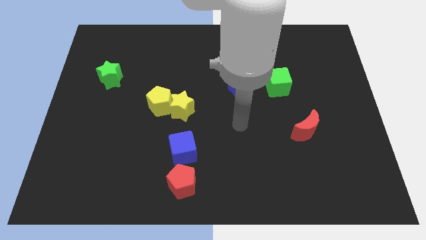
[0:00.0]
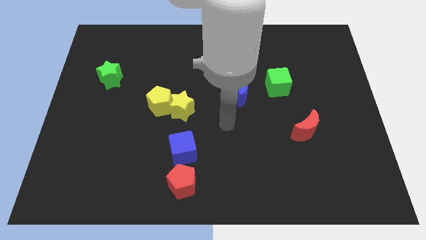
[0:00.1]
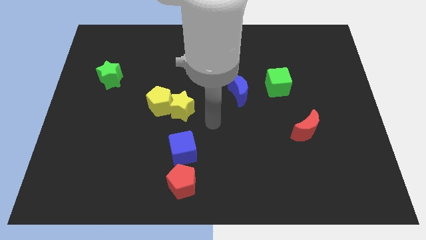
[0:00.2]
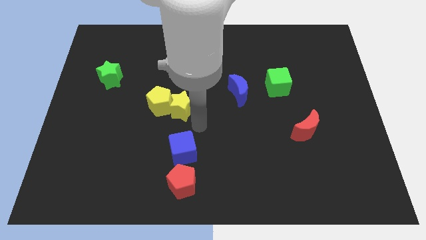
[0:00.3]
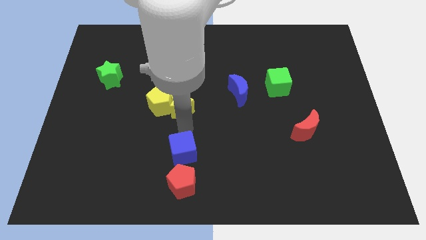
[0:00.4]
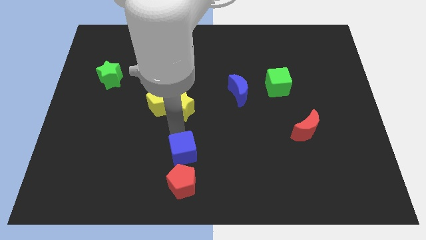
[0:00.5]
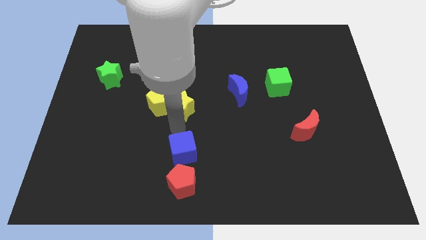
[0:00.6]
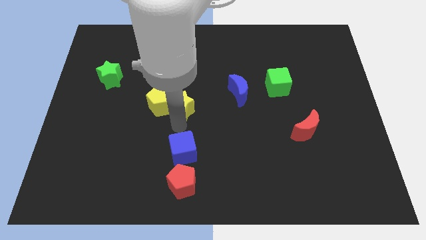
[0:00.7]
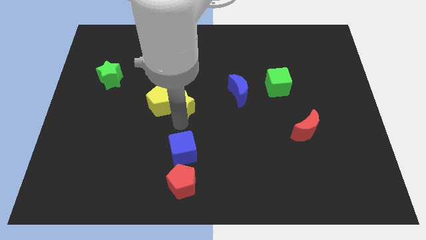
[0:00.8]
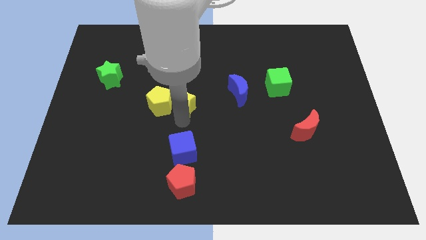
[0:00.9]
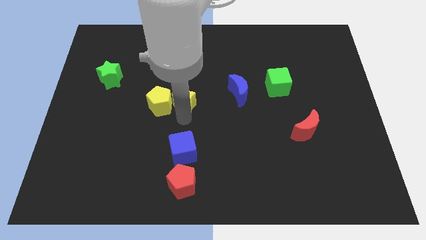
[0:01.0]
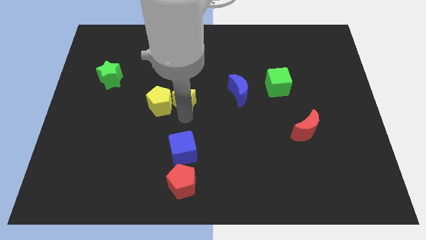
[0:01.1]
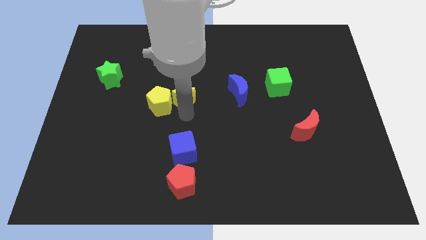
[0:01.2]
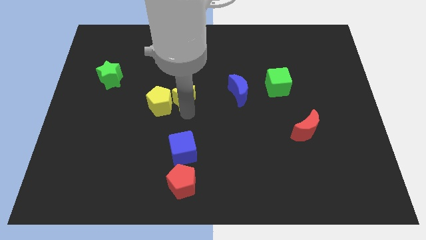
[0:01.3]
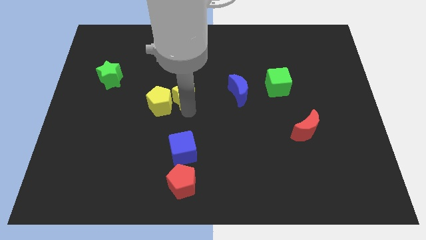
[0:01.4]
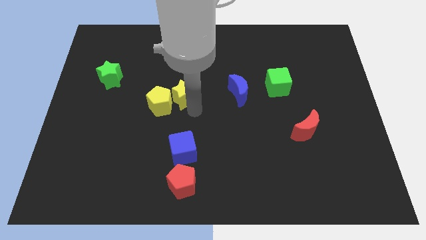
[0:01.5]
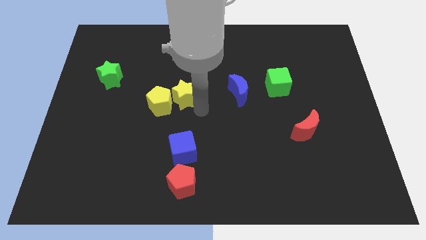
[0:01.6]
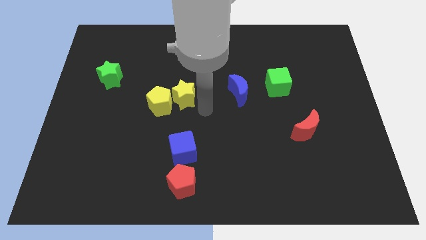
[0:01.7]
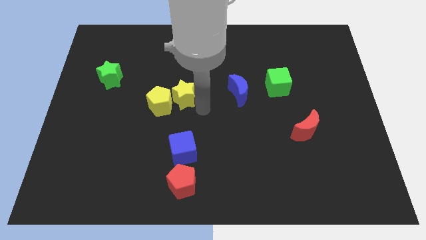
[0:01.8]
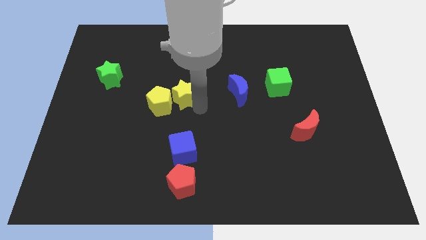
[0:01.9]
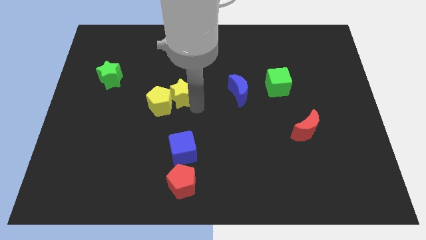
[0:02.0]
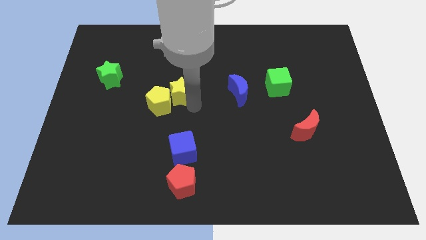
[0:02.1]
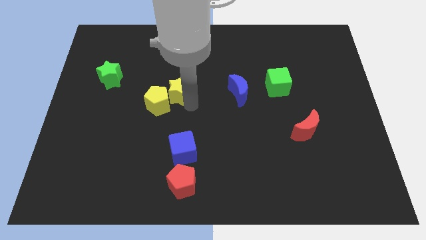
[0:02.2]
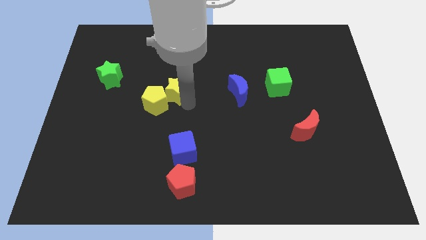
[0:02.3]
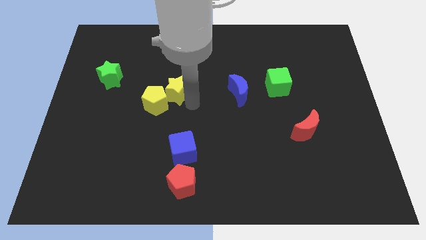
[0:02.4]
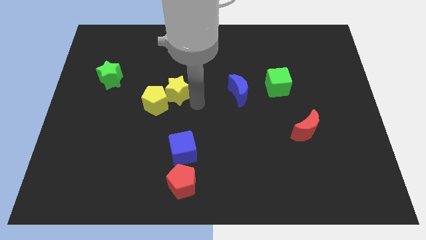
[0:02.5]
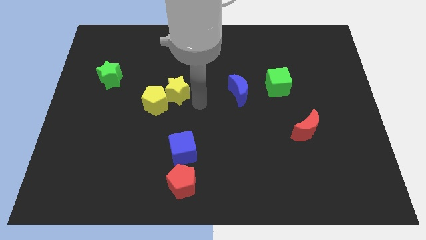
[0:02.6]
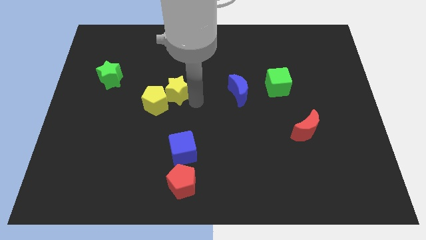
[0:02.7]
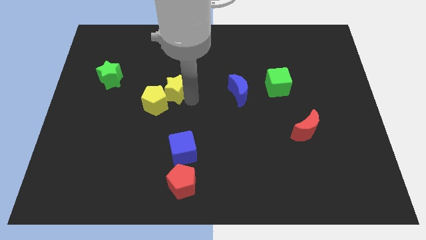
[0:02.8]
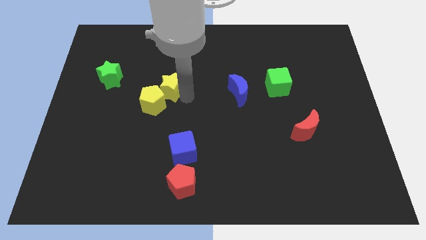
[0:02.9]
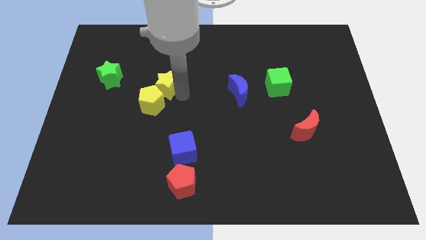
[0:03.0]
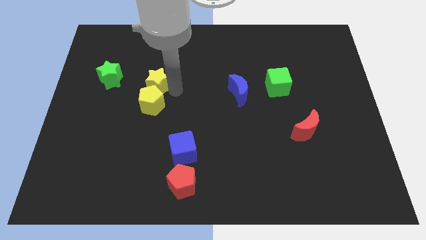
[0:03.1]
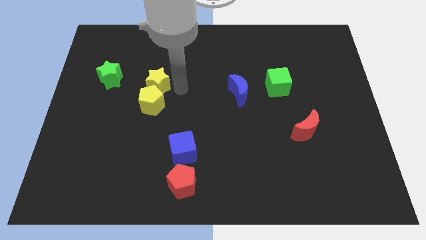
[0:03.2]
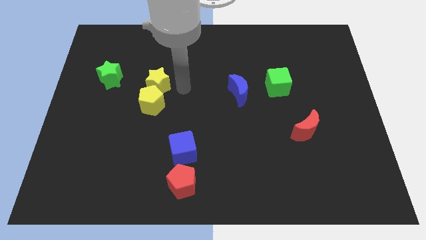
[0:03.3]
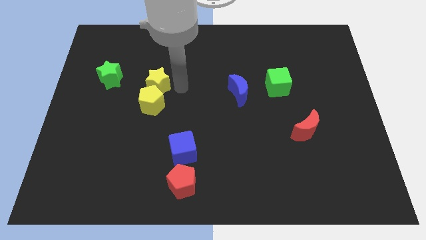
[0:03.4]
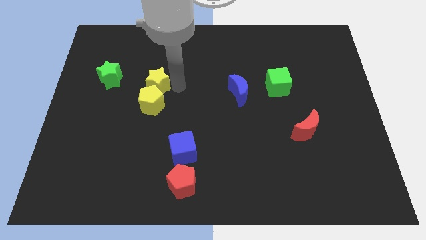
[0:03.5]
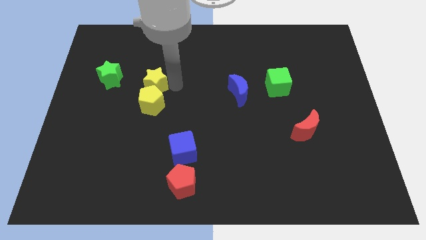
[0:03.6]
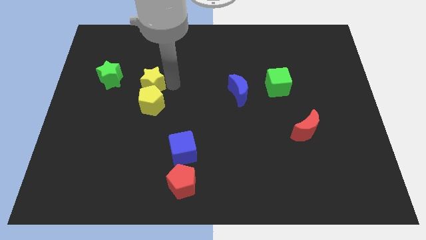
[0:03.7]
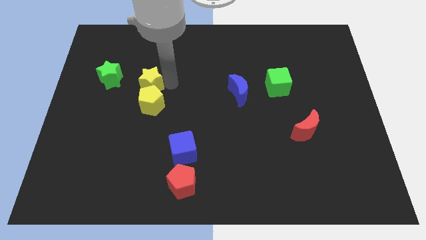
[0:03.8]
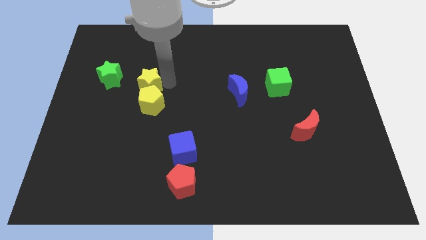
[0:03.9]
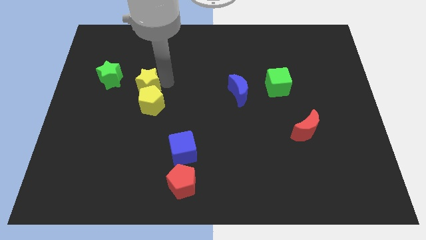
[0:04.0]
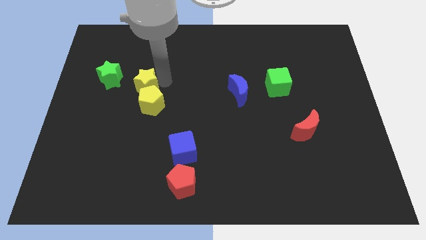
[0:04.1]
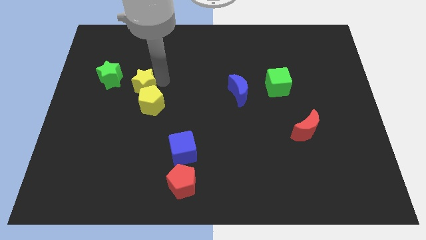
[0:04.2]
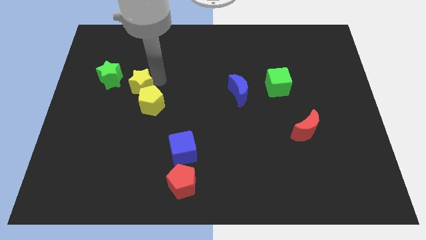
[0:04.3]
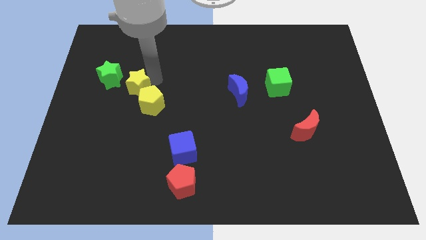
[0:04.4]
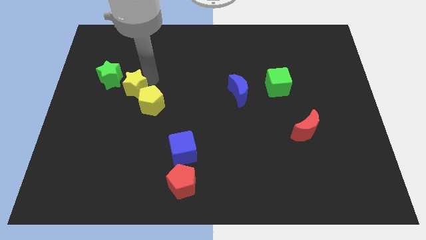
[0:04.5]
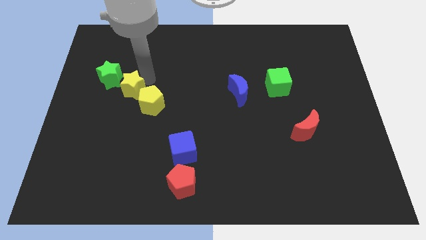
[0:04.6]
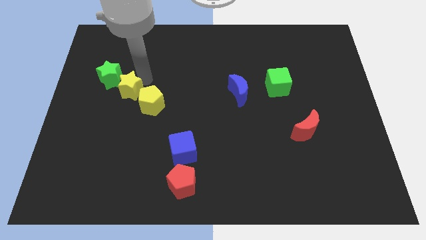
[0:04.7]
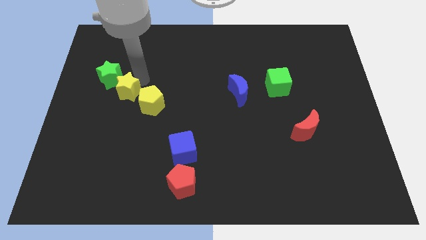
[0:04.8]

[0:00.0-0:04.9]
move the yellow star close to the green star

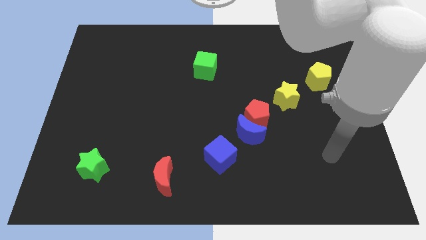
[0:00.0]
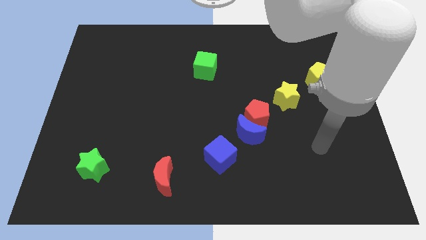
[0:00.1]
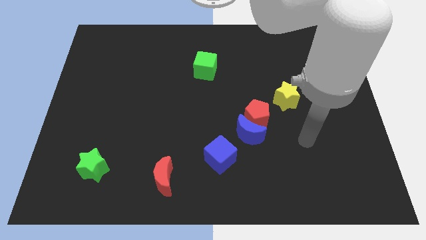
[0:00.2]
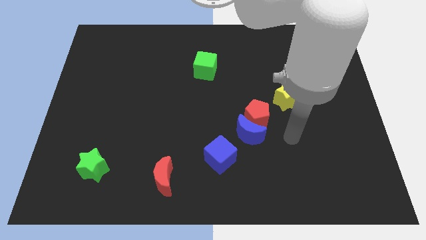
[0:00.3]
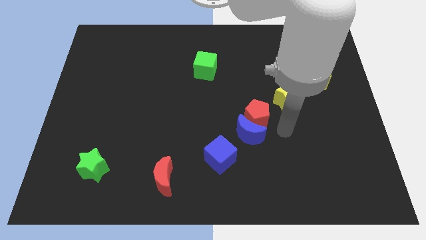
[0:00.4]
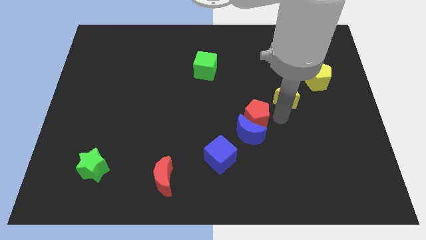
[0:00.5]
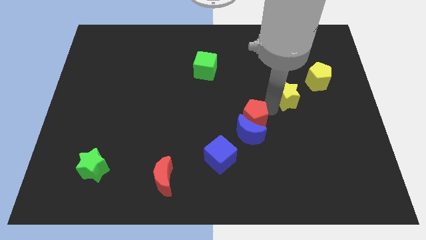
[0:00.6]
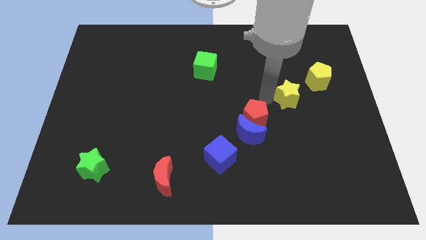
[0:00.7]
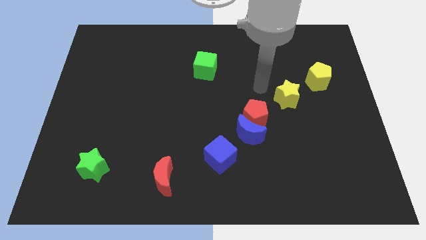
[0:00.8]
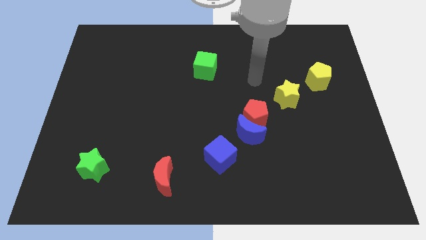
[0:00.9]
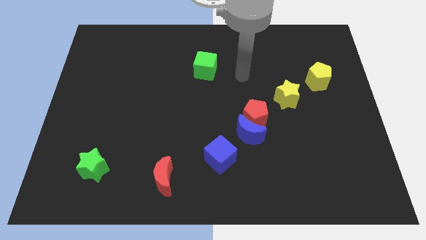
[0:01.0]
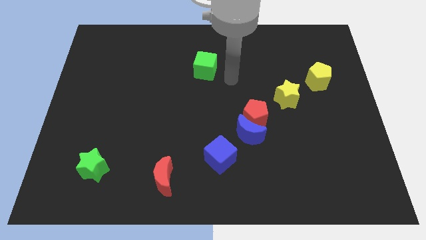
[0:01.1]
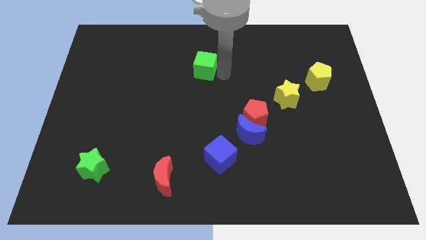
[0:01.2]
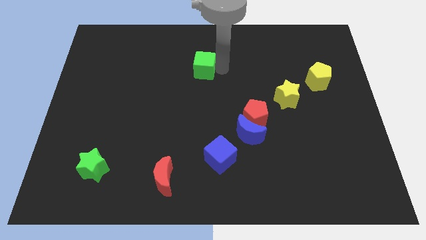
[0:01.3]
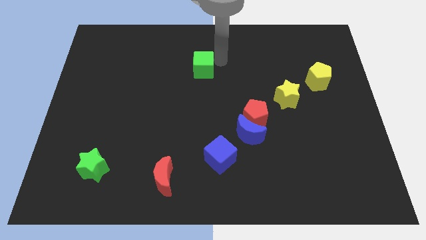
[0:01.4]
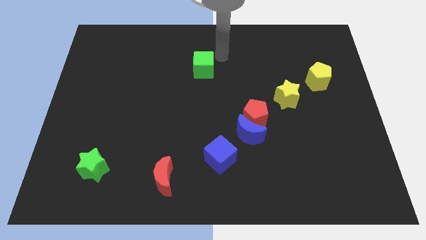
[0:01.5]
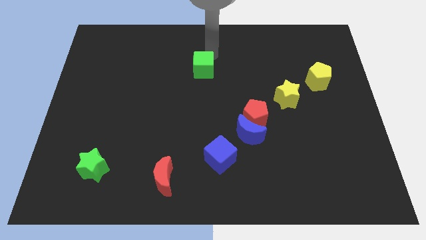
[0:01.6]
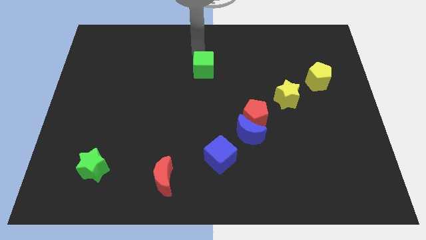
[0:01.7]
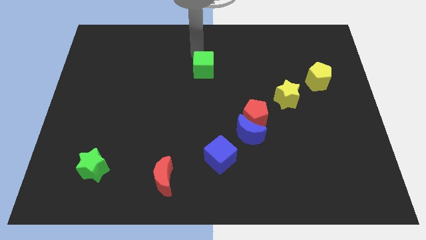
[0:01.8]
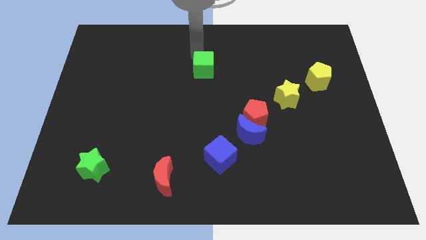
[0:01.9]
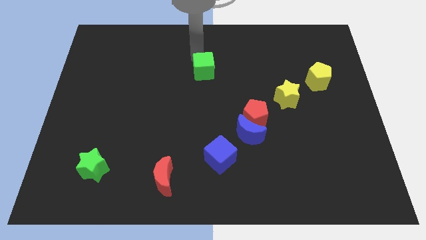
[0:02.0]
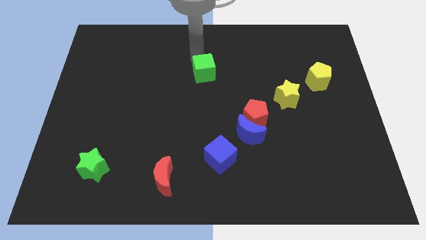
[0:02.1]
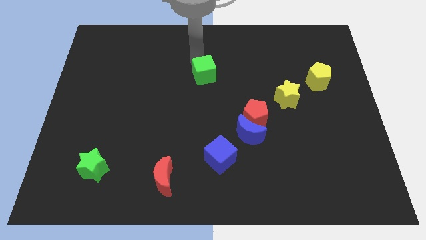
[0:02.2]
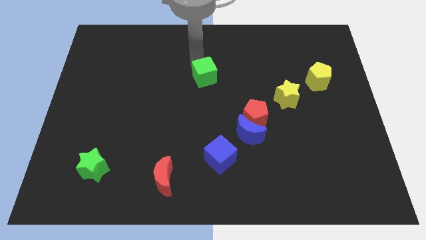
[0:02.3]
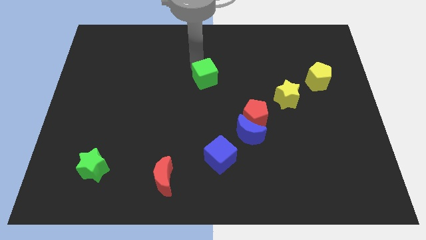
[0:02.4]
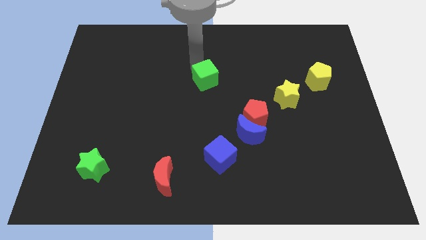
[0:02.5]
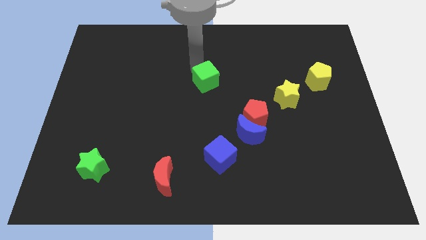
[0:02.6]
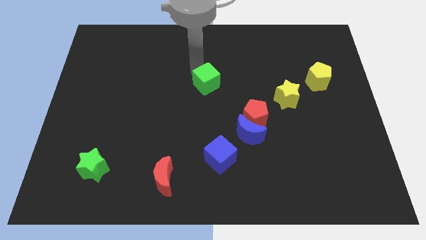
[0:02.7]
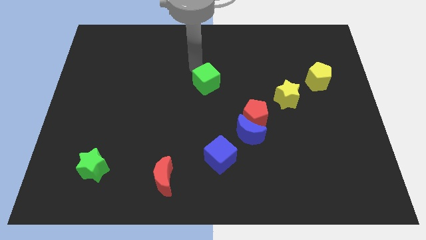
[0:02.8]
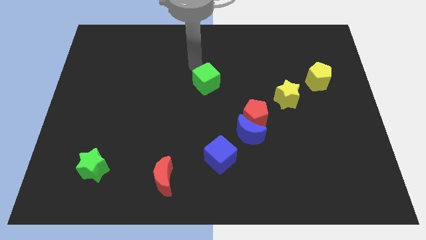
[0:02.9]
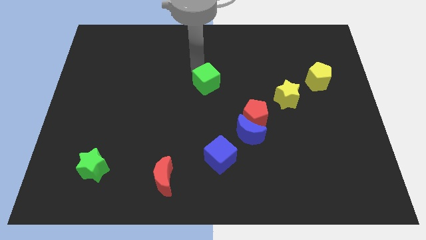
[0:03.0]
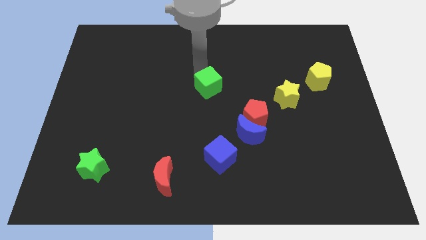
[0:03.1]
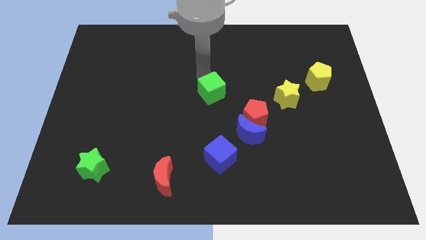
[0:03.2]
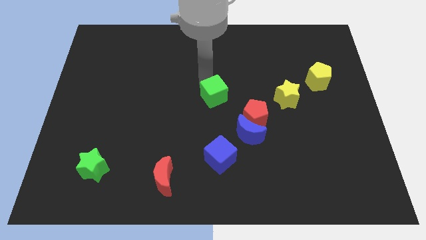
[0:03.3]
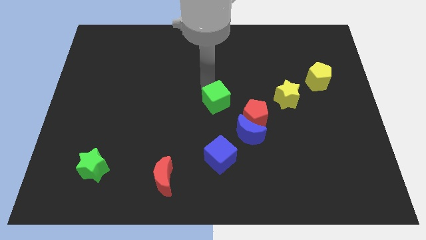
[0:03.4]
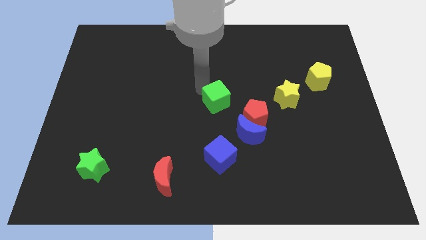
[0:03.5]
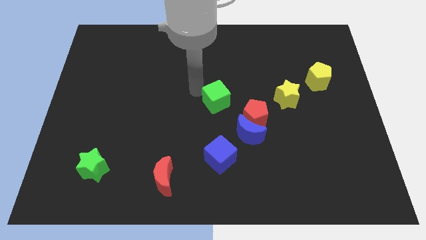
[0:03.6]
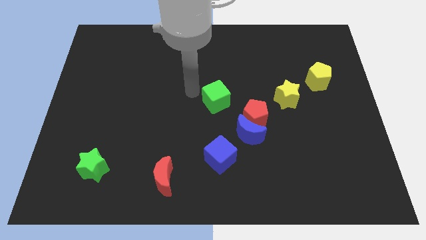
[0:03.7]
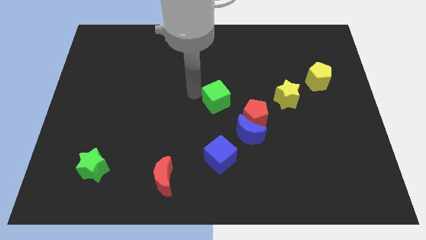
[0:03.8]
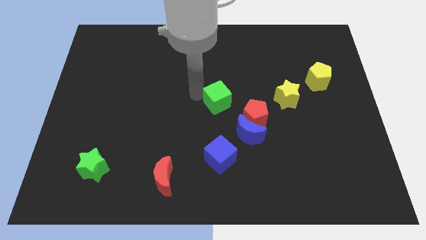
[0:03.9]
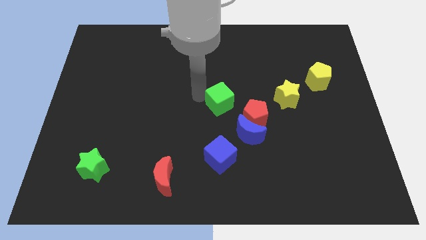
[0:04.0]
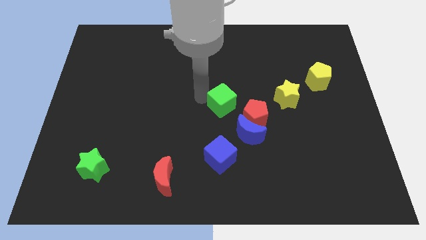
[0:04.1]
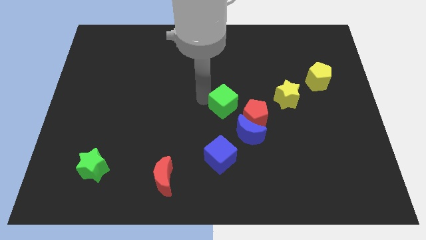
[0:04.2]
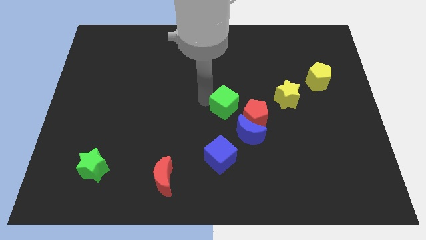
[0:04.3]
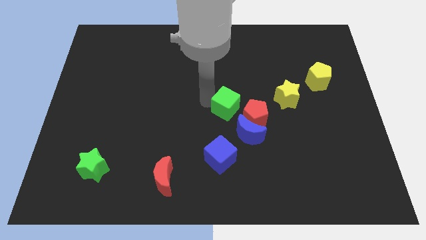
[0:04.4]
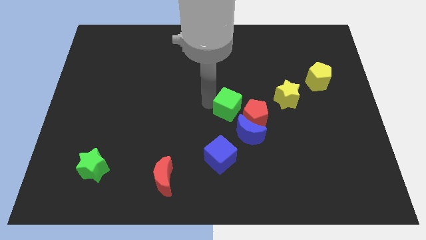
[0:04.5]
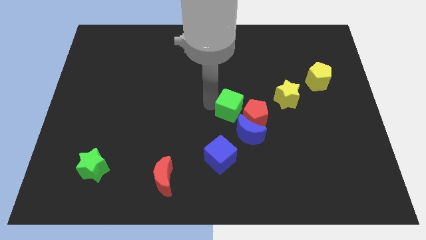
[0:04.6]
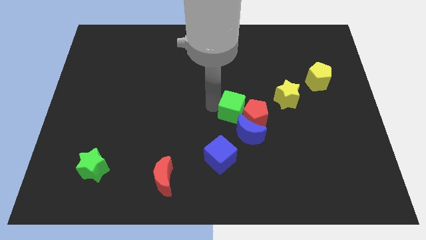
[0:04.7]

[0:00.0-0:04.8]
move the green cube towards the red pentagon
